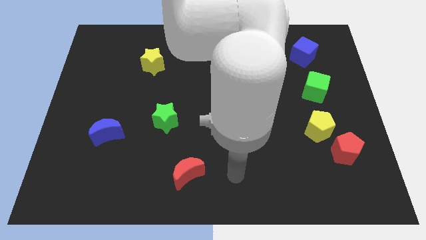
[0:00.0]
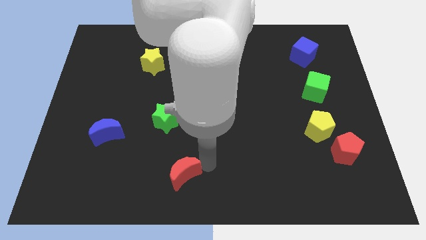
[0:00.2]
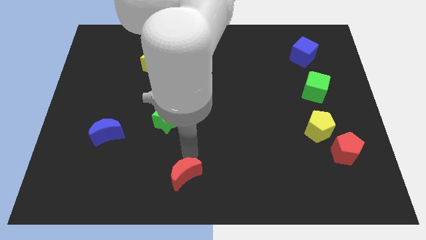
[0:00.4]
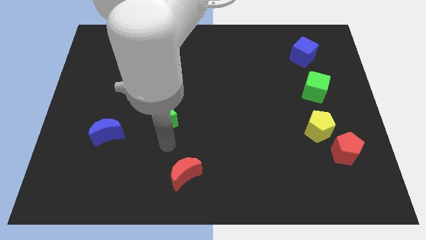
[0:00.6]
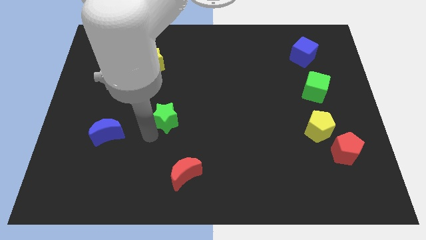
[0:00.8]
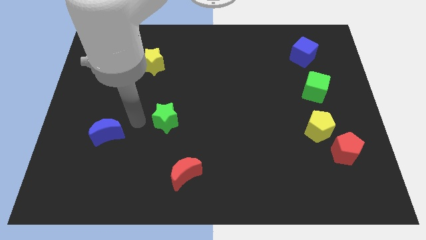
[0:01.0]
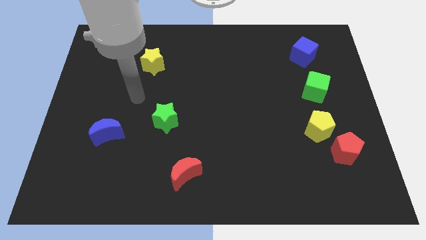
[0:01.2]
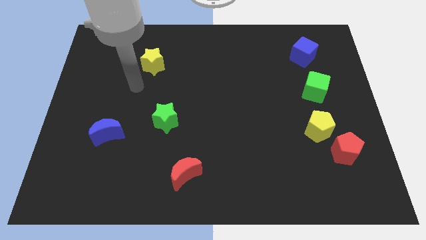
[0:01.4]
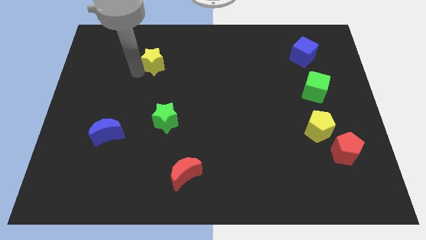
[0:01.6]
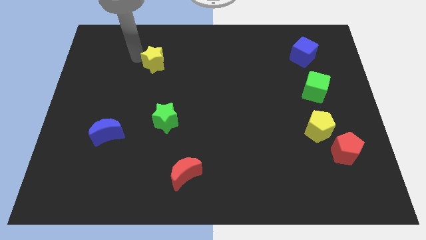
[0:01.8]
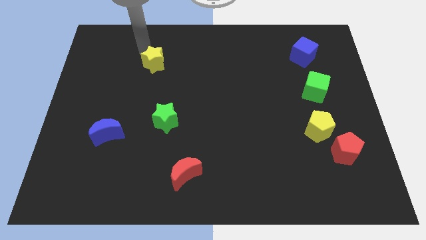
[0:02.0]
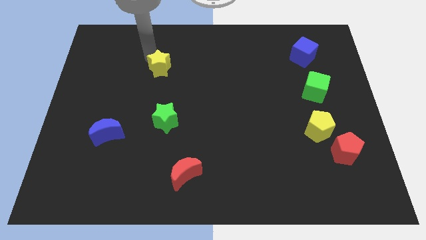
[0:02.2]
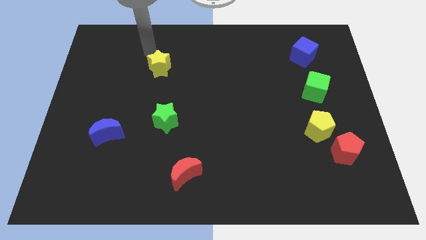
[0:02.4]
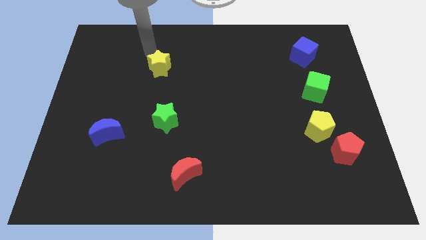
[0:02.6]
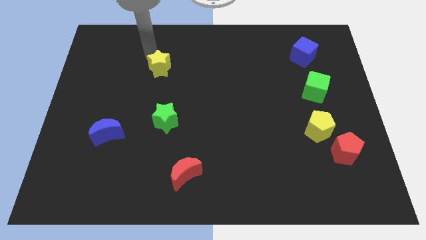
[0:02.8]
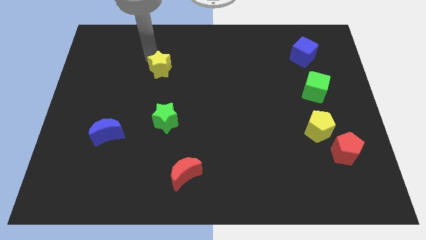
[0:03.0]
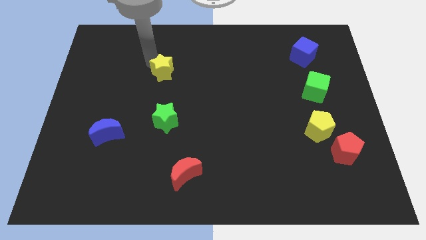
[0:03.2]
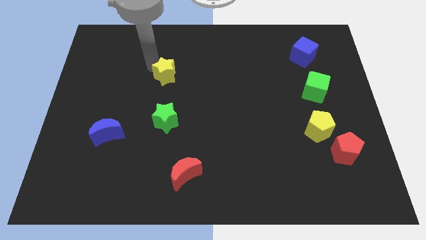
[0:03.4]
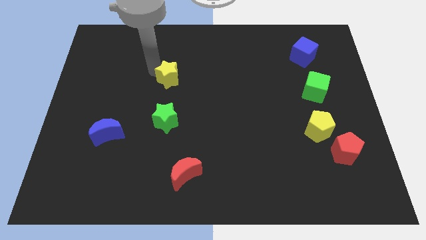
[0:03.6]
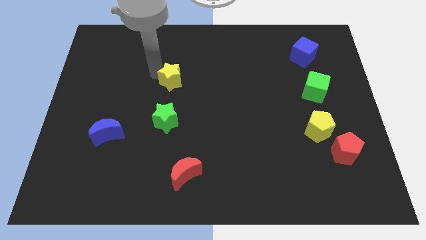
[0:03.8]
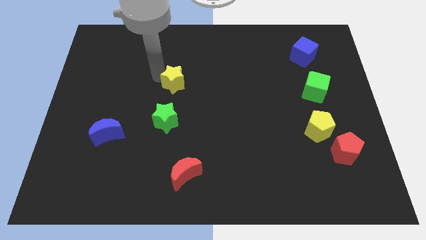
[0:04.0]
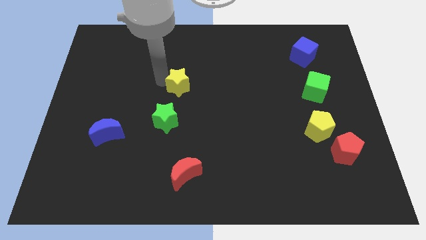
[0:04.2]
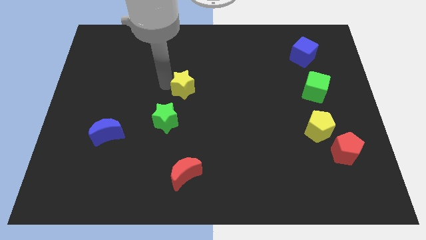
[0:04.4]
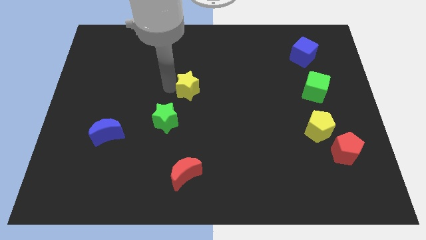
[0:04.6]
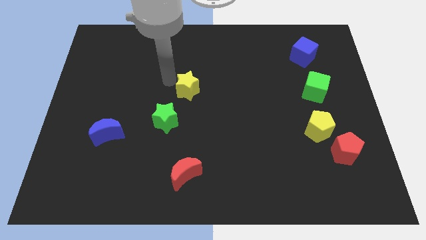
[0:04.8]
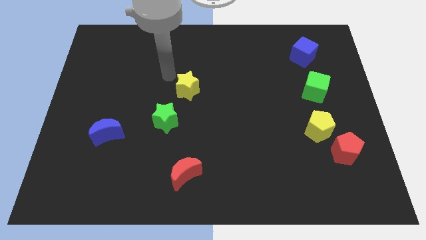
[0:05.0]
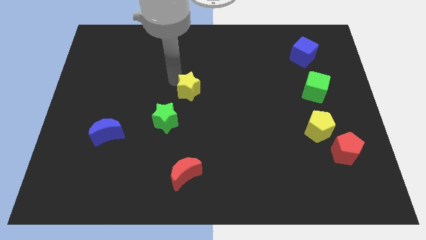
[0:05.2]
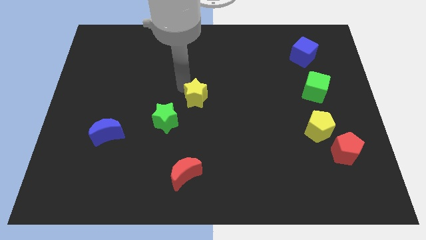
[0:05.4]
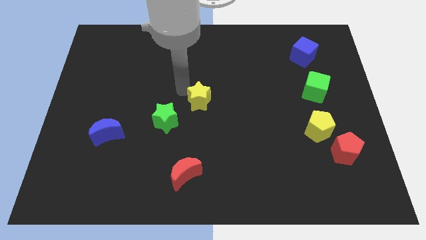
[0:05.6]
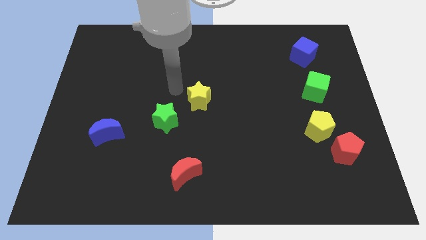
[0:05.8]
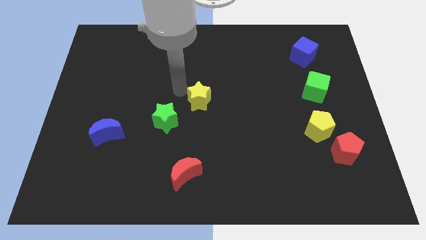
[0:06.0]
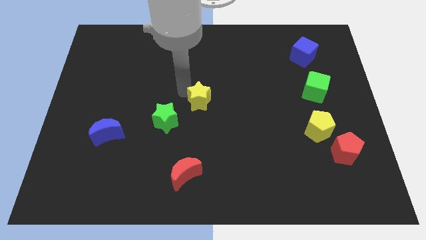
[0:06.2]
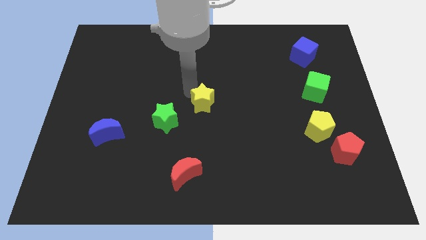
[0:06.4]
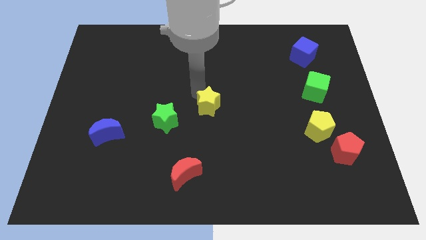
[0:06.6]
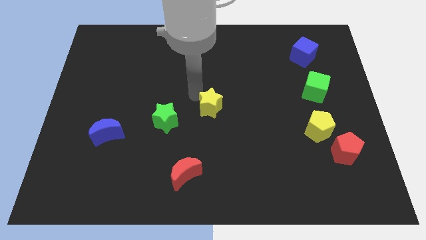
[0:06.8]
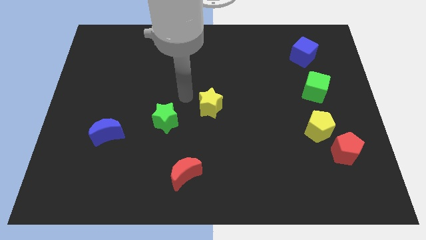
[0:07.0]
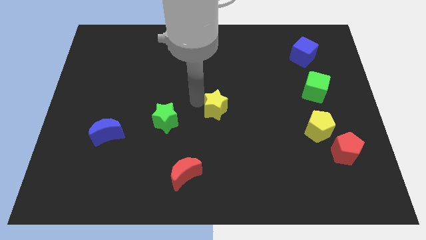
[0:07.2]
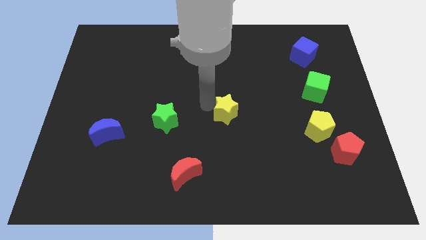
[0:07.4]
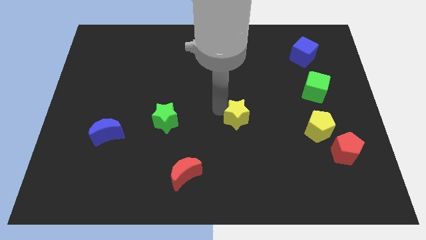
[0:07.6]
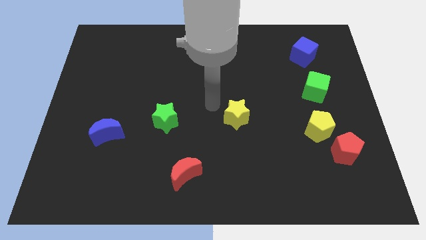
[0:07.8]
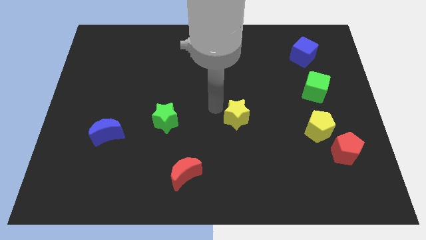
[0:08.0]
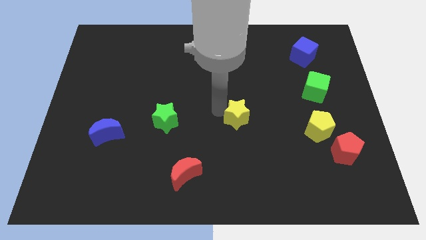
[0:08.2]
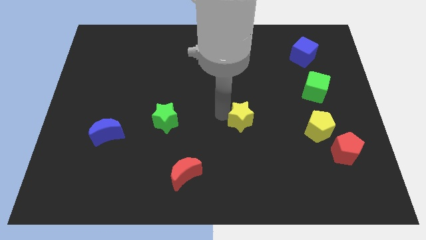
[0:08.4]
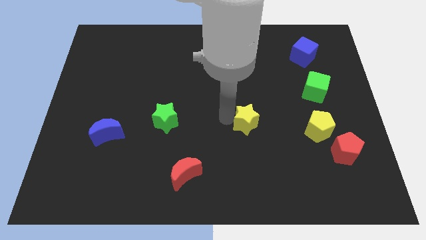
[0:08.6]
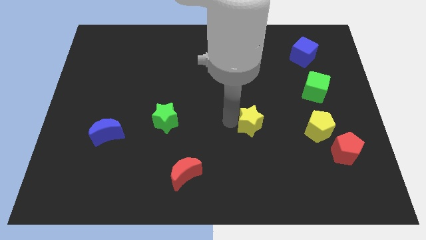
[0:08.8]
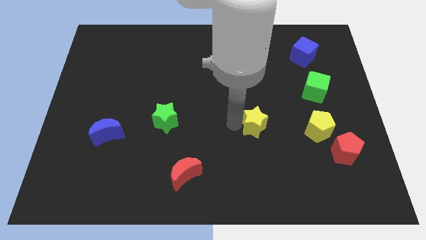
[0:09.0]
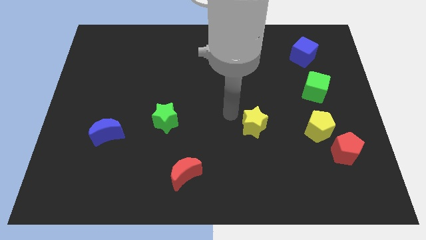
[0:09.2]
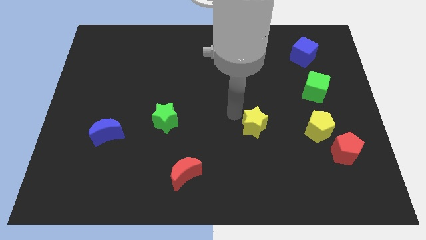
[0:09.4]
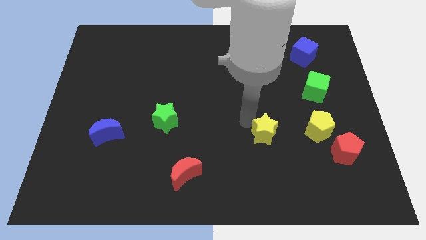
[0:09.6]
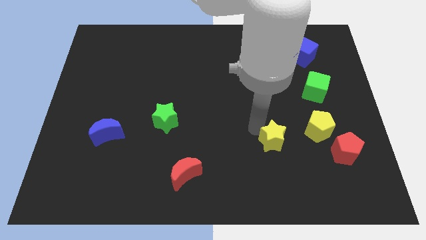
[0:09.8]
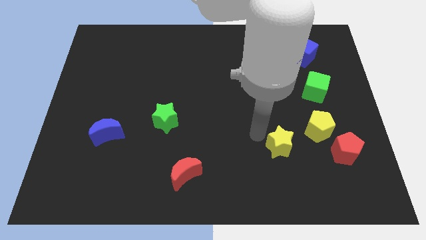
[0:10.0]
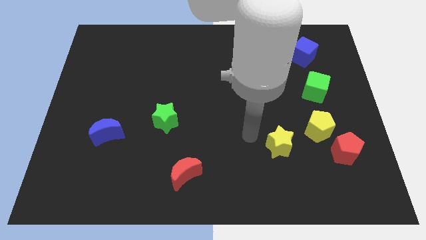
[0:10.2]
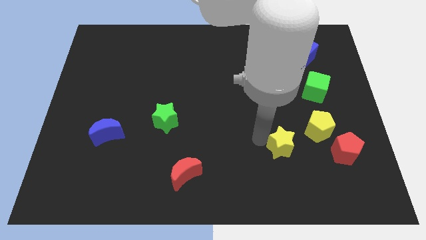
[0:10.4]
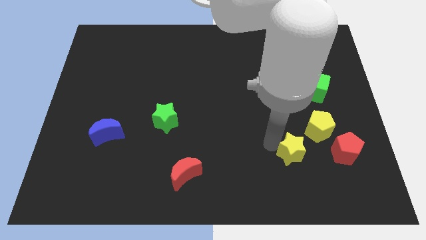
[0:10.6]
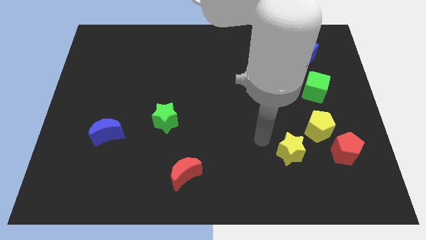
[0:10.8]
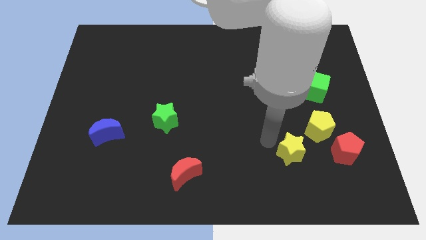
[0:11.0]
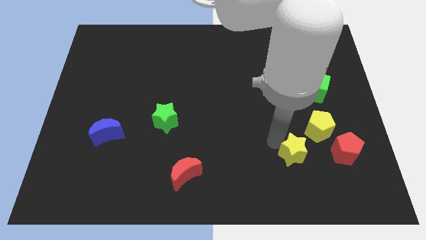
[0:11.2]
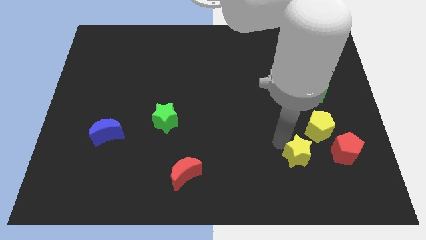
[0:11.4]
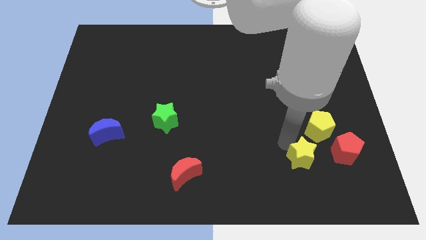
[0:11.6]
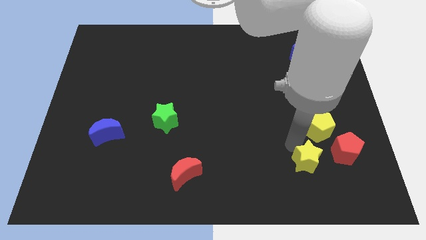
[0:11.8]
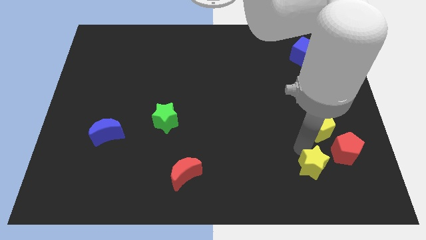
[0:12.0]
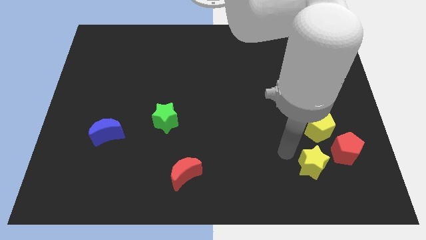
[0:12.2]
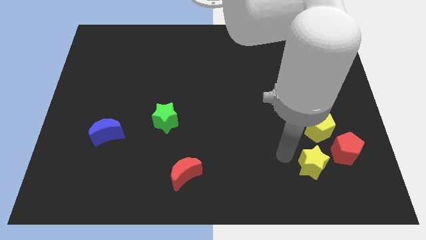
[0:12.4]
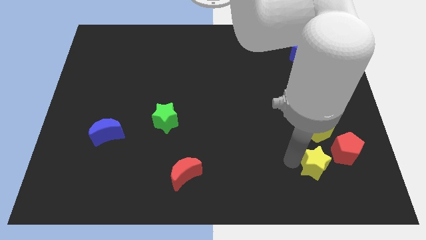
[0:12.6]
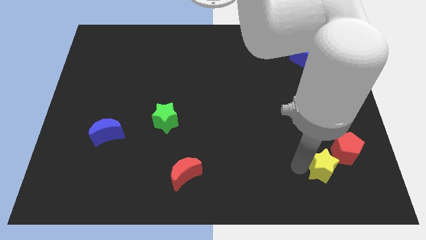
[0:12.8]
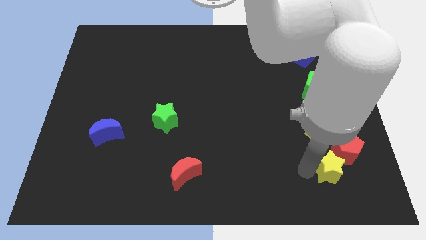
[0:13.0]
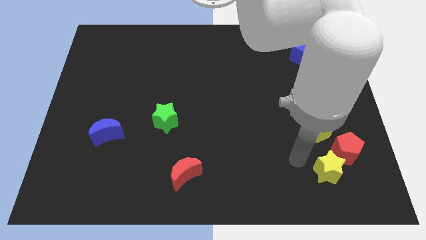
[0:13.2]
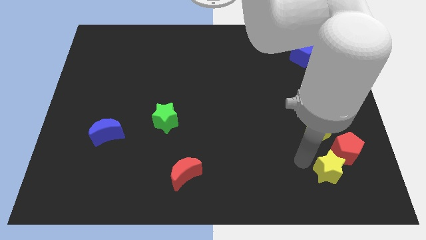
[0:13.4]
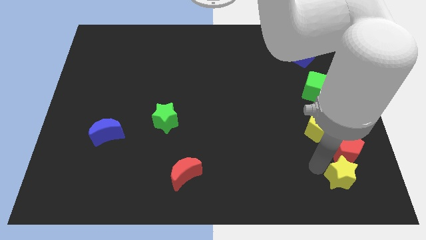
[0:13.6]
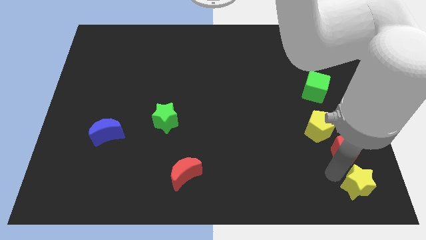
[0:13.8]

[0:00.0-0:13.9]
put the yellow star to the bottom right corner
